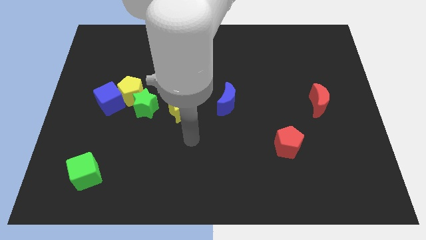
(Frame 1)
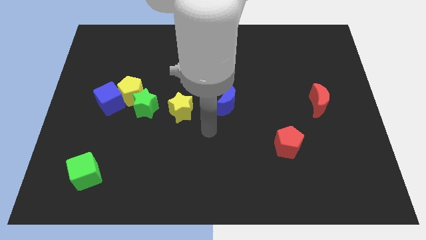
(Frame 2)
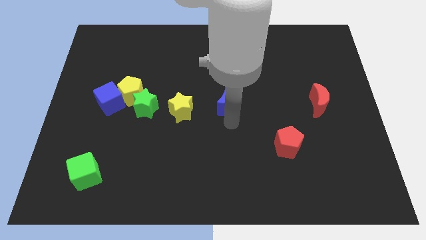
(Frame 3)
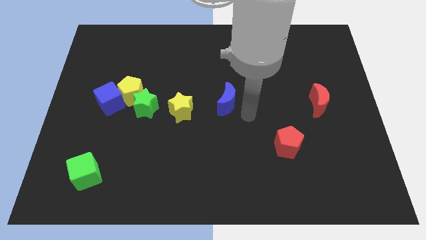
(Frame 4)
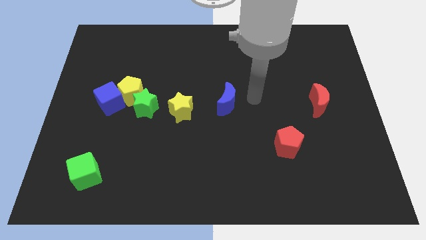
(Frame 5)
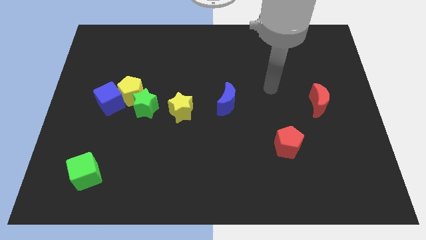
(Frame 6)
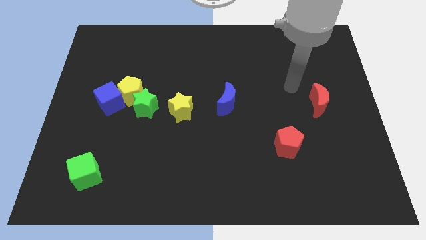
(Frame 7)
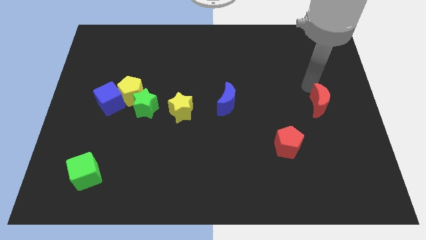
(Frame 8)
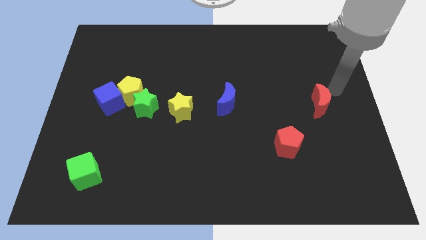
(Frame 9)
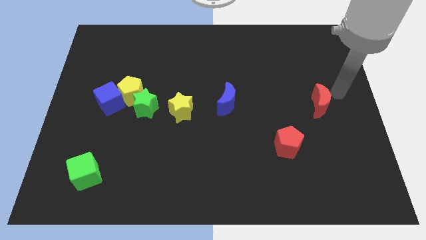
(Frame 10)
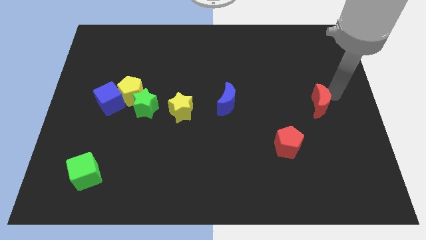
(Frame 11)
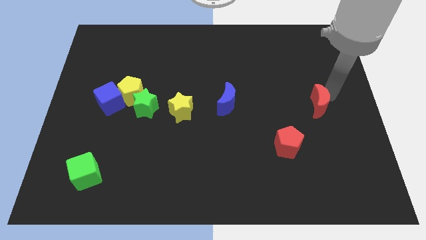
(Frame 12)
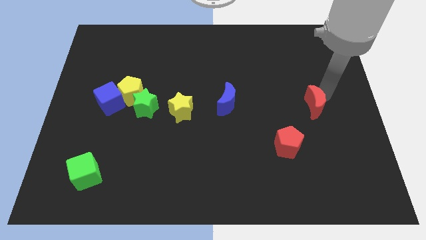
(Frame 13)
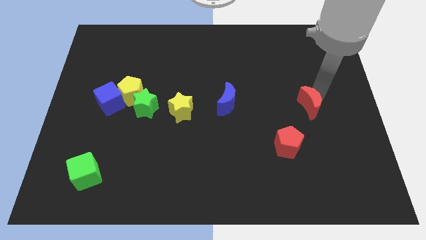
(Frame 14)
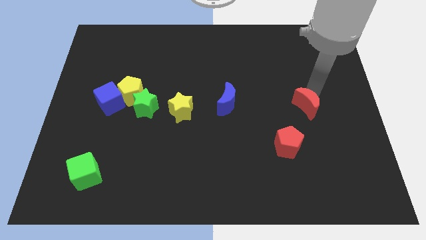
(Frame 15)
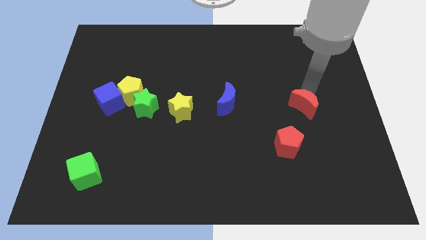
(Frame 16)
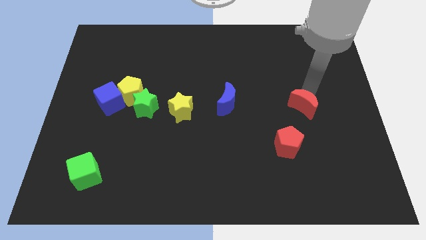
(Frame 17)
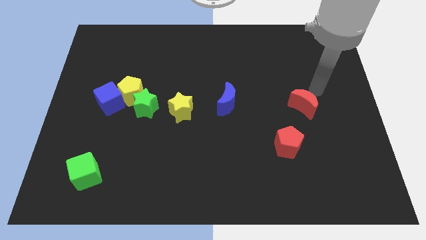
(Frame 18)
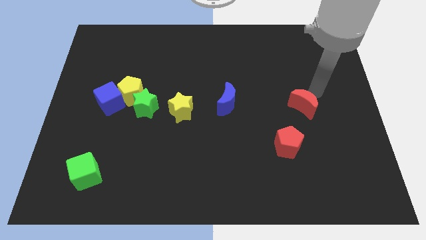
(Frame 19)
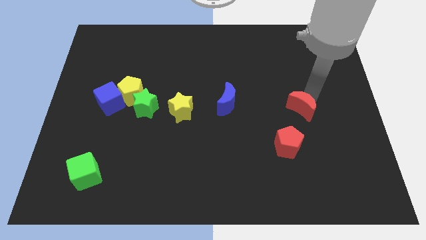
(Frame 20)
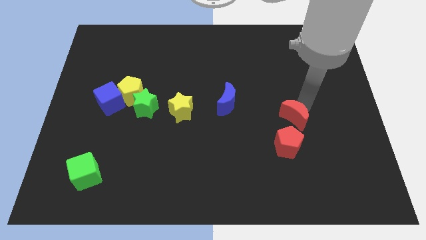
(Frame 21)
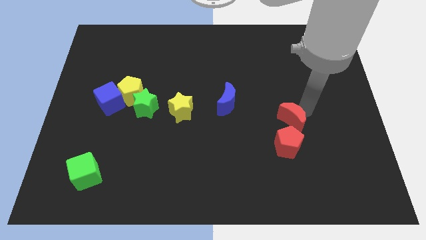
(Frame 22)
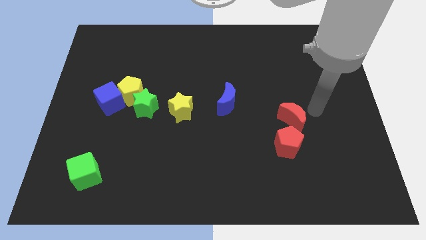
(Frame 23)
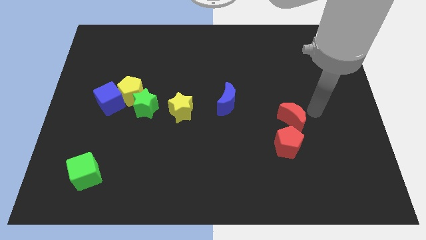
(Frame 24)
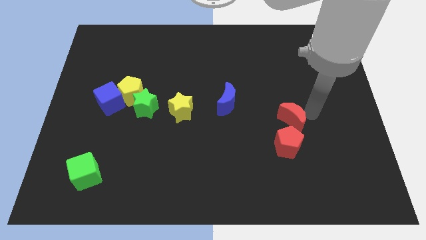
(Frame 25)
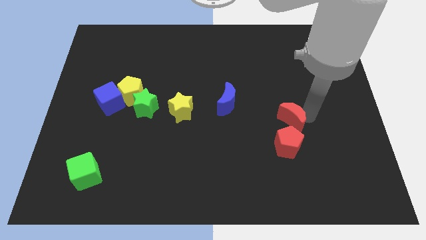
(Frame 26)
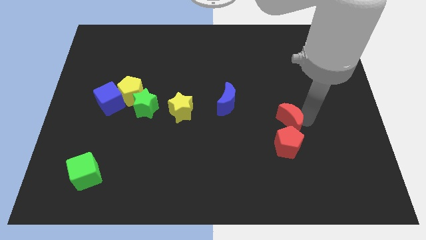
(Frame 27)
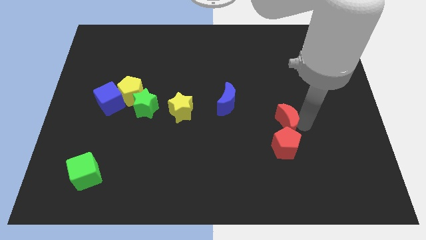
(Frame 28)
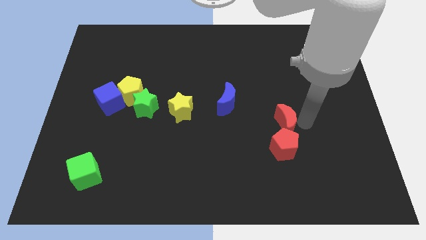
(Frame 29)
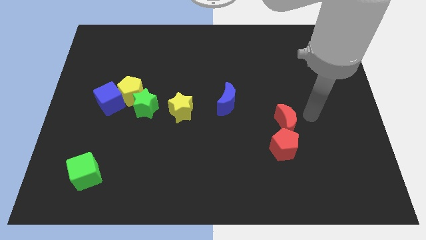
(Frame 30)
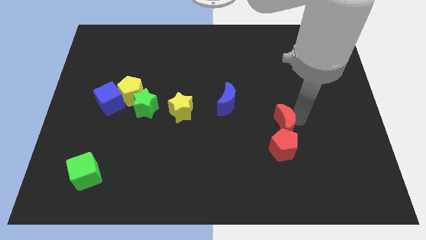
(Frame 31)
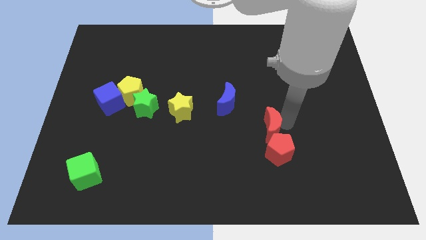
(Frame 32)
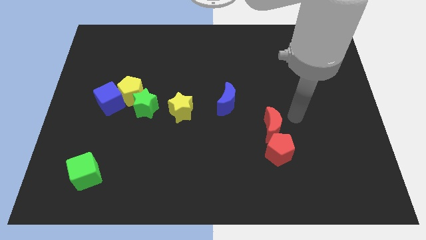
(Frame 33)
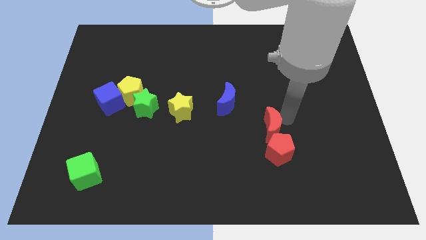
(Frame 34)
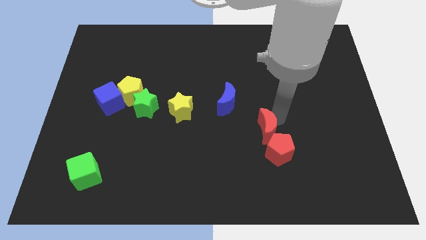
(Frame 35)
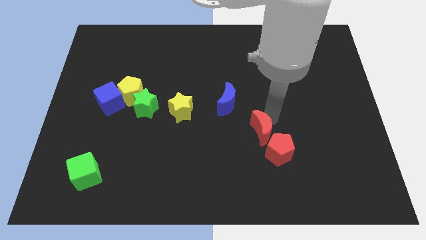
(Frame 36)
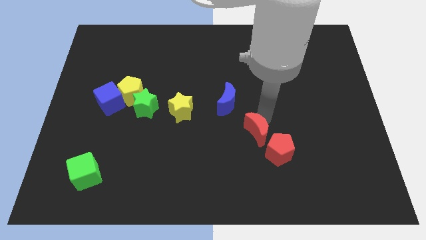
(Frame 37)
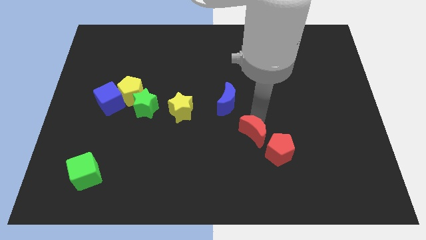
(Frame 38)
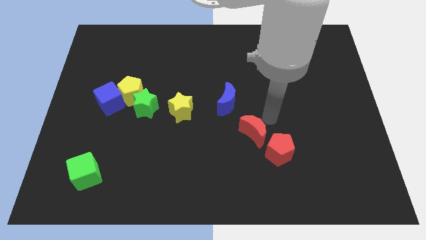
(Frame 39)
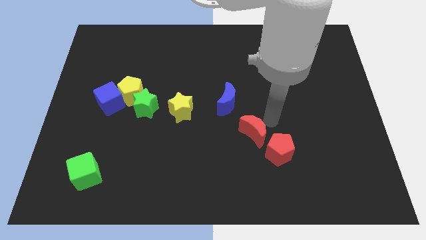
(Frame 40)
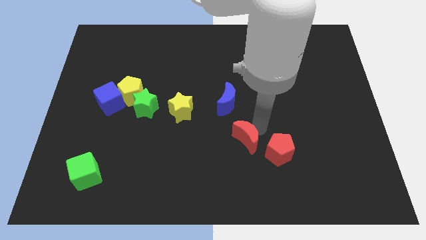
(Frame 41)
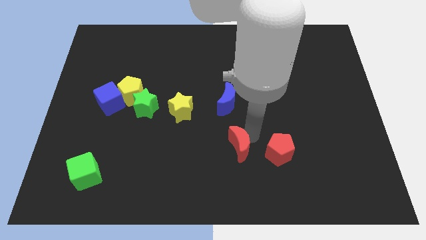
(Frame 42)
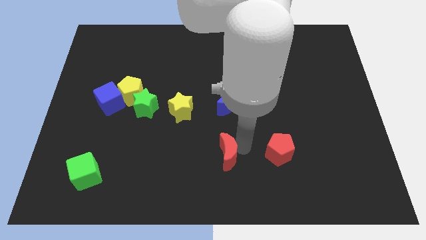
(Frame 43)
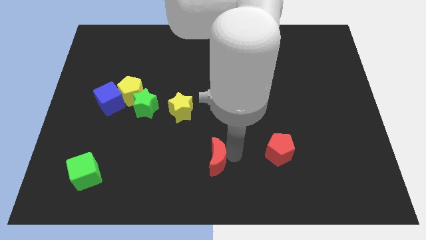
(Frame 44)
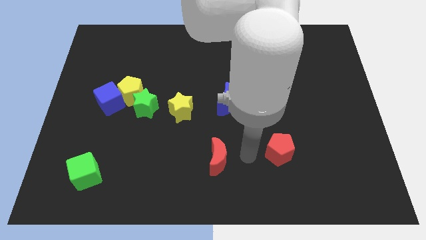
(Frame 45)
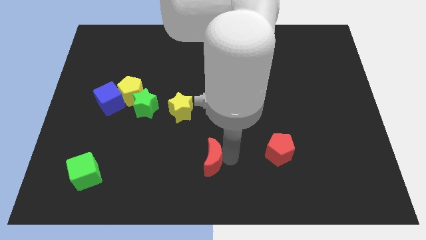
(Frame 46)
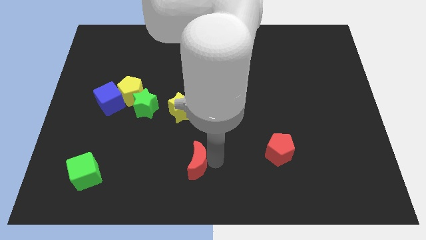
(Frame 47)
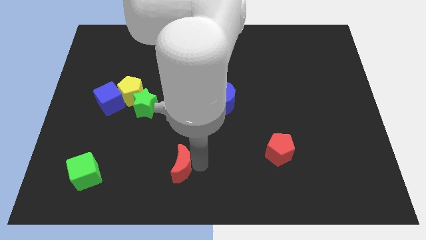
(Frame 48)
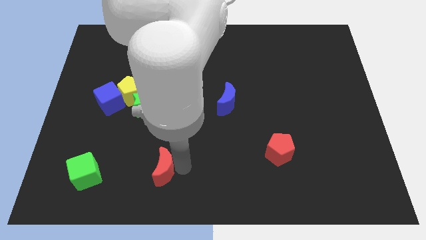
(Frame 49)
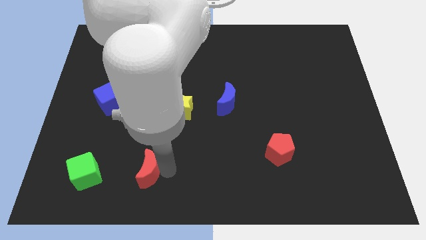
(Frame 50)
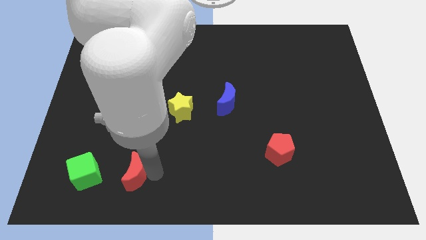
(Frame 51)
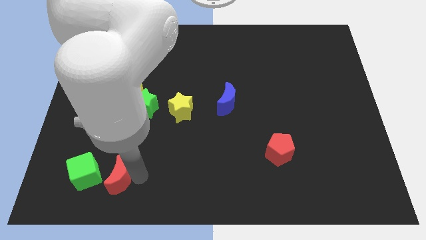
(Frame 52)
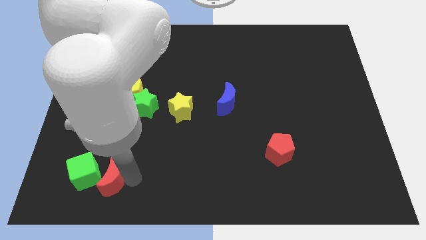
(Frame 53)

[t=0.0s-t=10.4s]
slide the red moon close to the green cube

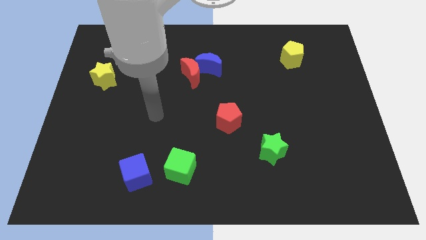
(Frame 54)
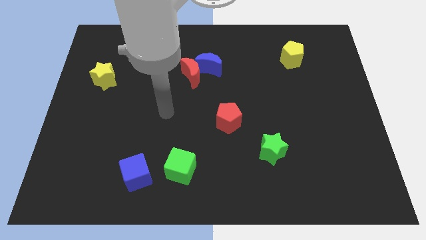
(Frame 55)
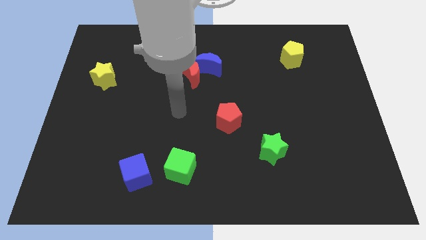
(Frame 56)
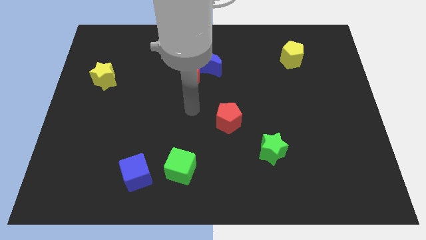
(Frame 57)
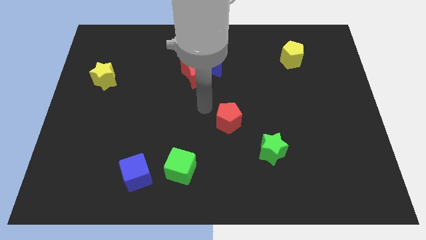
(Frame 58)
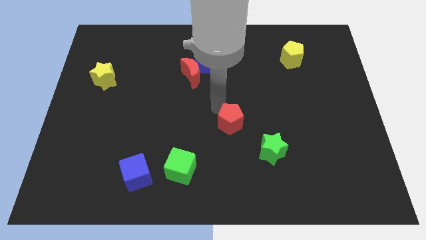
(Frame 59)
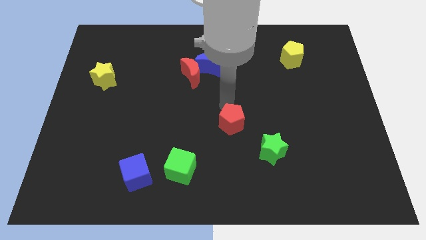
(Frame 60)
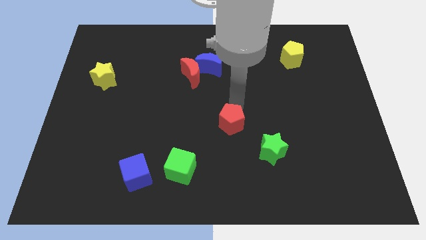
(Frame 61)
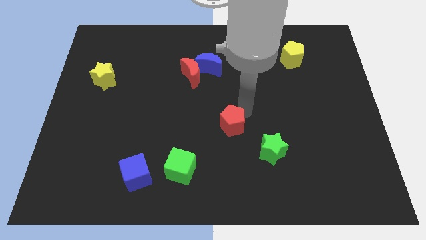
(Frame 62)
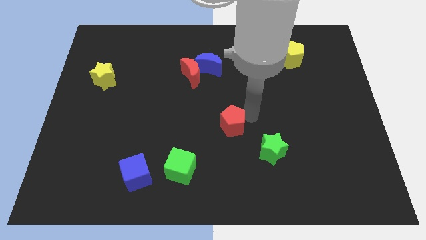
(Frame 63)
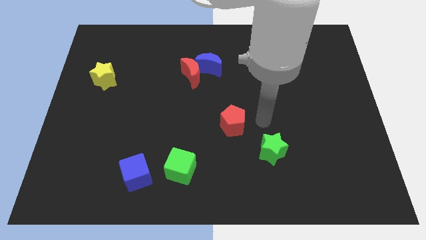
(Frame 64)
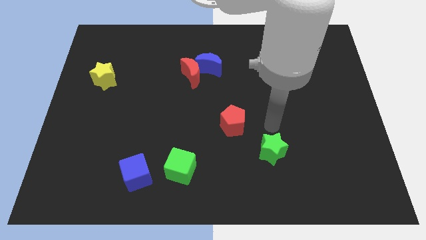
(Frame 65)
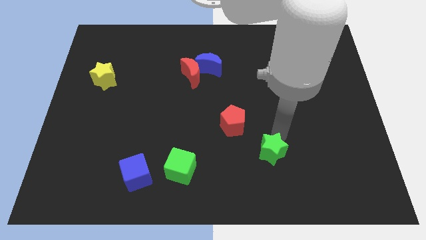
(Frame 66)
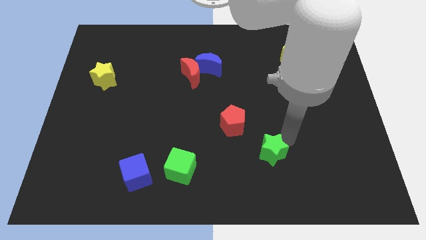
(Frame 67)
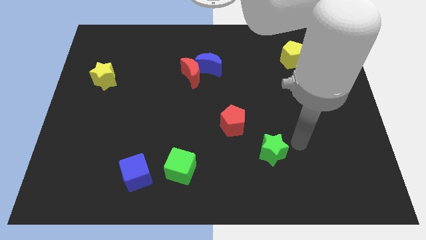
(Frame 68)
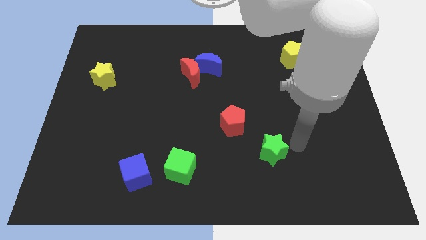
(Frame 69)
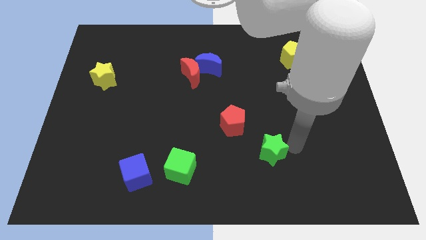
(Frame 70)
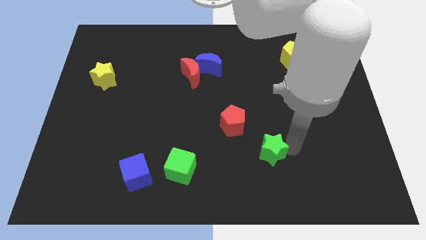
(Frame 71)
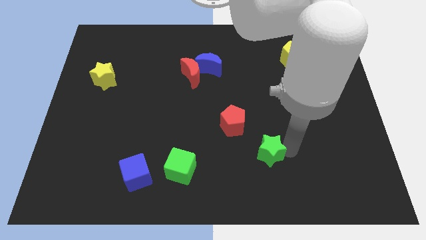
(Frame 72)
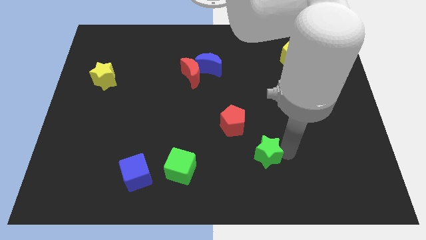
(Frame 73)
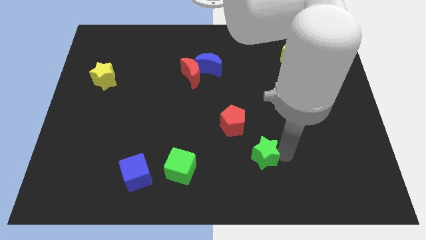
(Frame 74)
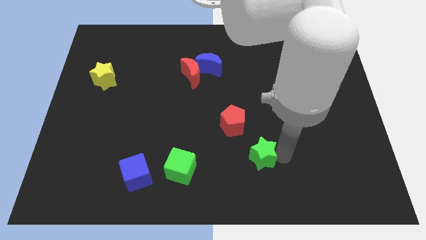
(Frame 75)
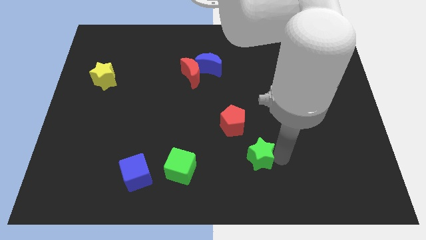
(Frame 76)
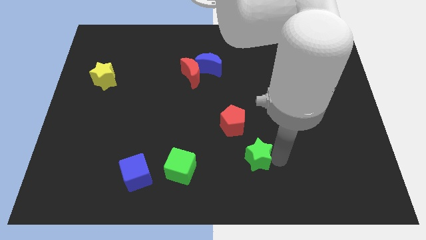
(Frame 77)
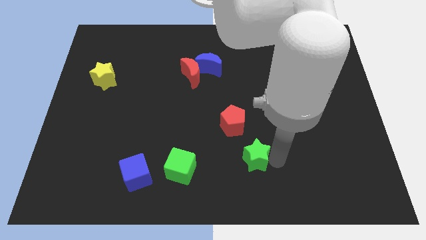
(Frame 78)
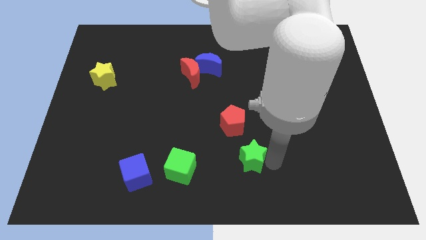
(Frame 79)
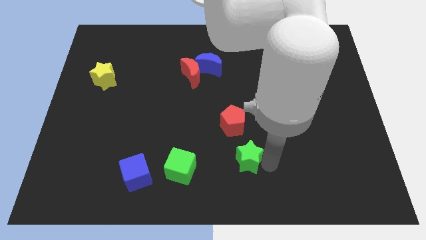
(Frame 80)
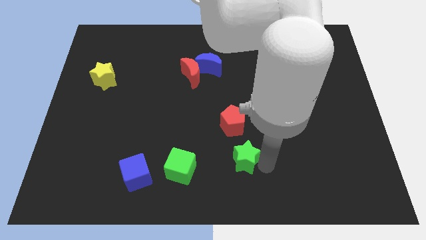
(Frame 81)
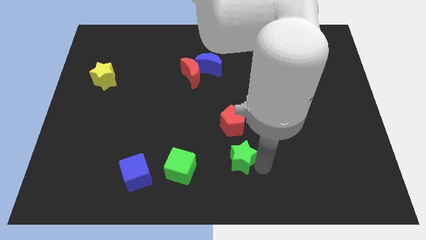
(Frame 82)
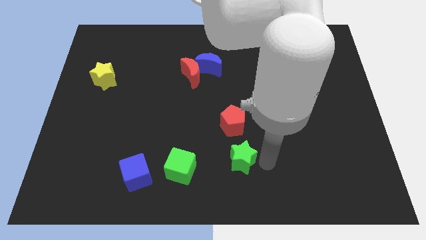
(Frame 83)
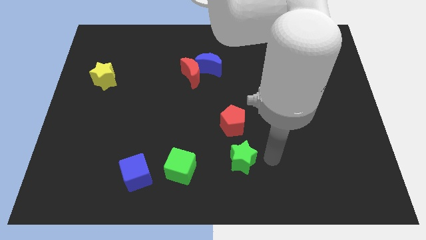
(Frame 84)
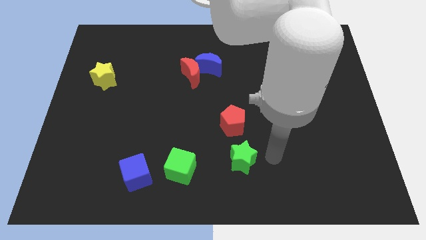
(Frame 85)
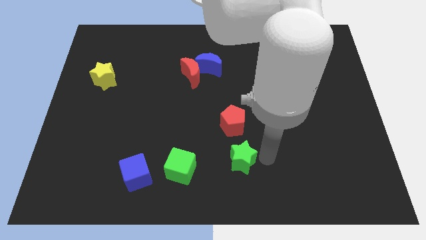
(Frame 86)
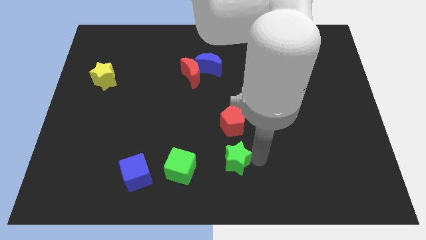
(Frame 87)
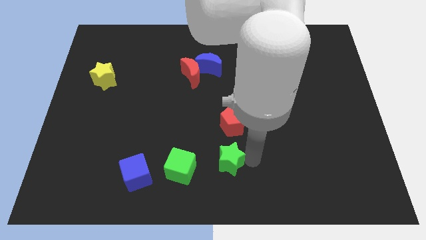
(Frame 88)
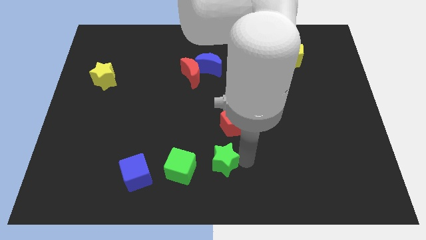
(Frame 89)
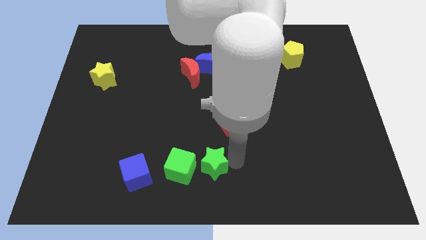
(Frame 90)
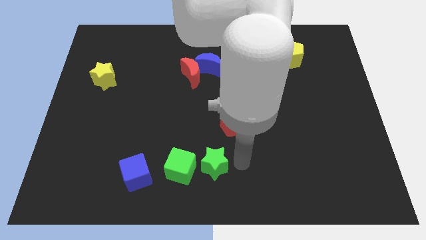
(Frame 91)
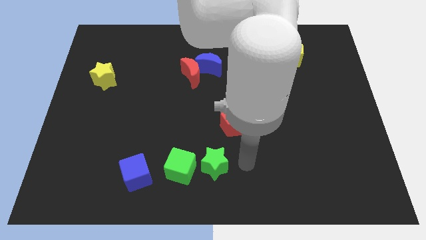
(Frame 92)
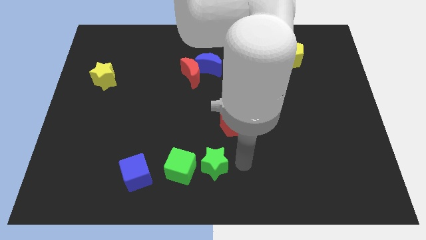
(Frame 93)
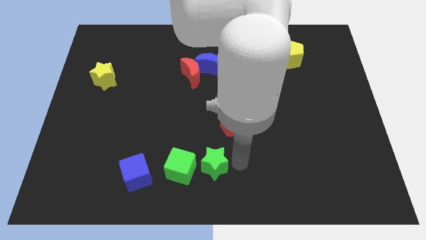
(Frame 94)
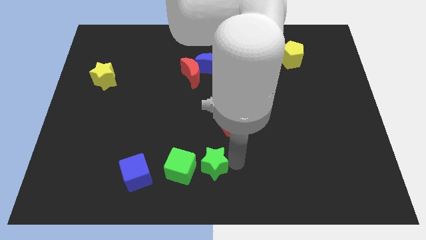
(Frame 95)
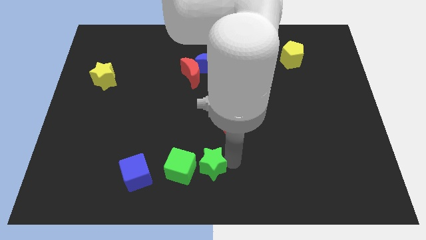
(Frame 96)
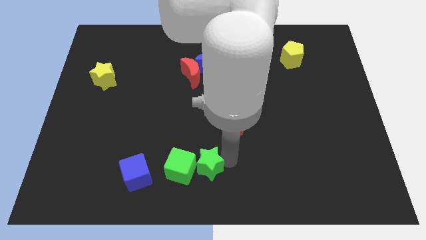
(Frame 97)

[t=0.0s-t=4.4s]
put the green star next to the green cube
